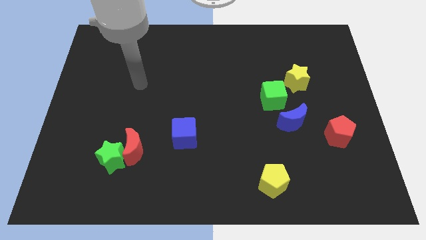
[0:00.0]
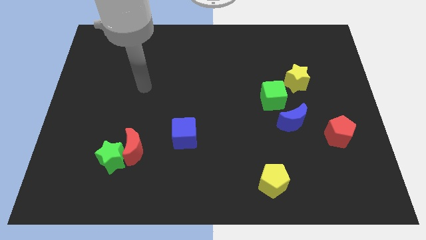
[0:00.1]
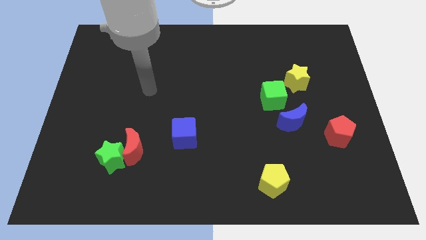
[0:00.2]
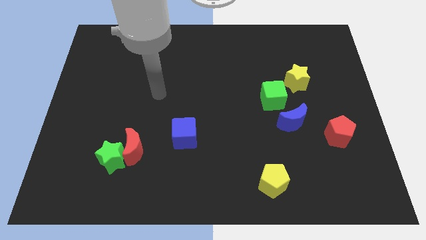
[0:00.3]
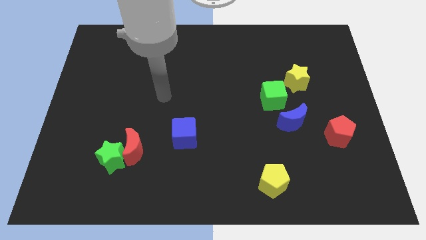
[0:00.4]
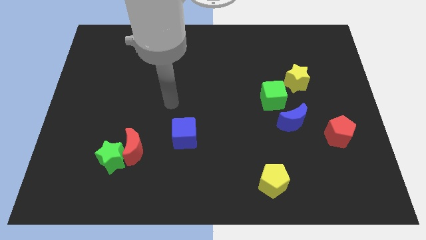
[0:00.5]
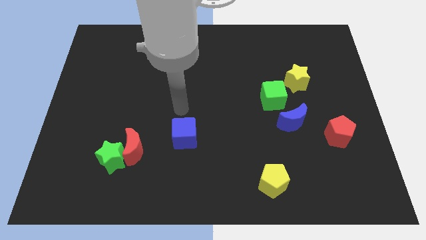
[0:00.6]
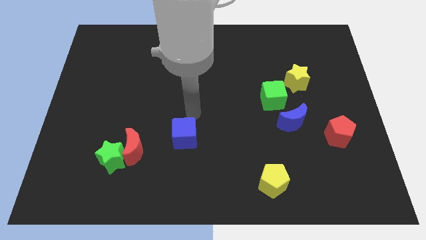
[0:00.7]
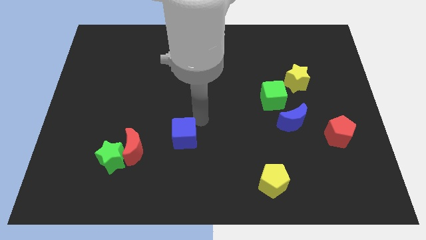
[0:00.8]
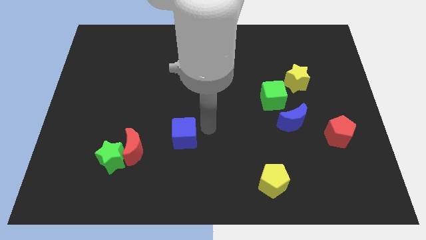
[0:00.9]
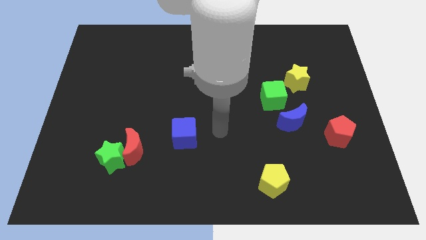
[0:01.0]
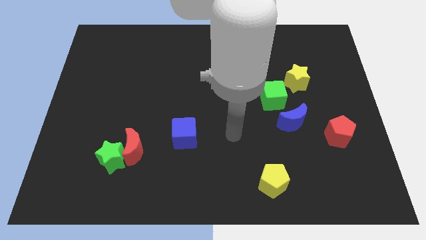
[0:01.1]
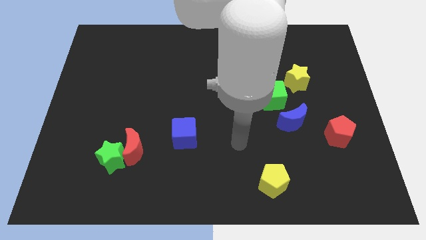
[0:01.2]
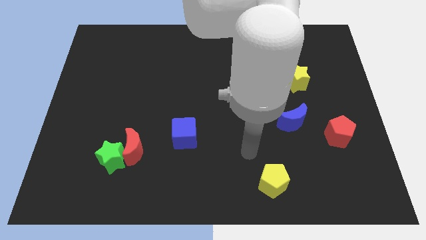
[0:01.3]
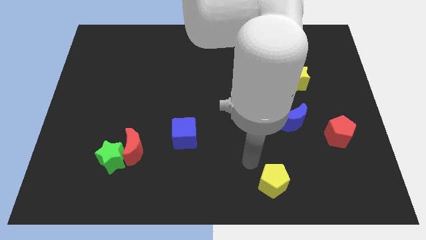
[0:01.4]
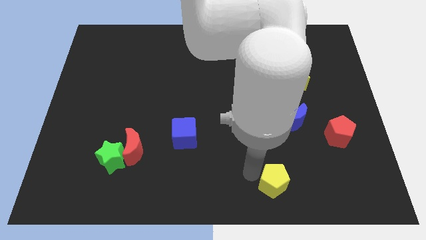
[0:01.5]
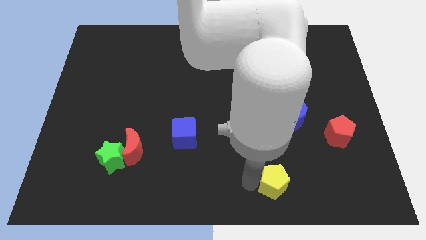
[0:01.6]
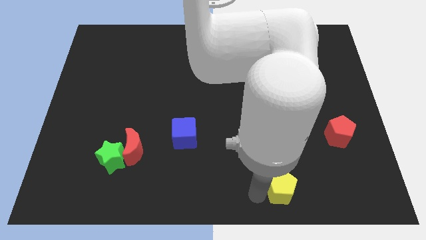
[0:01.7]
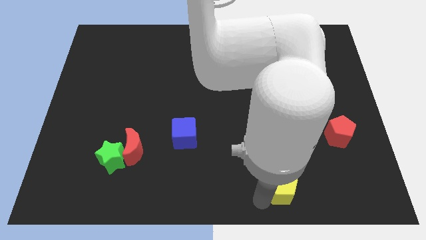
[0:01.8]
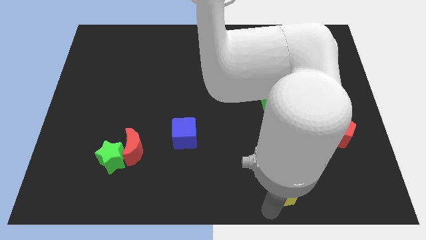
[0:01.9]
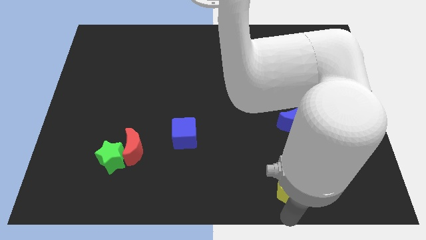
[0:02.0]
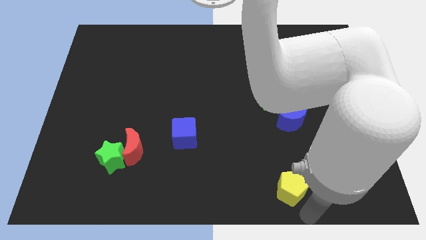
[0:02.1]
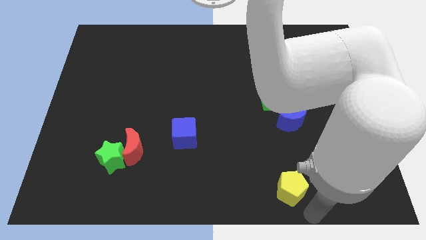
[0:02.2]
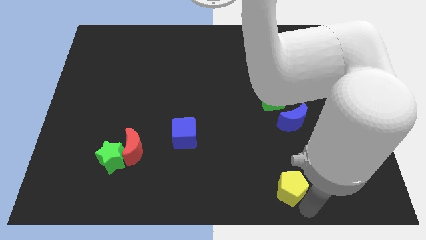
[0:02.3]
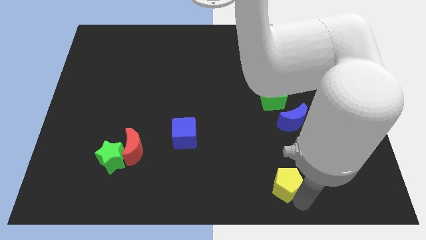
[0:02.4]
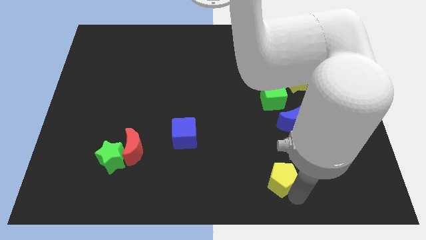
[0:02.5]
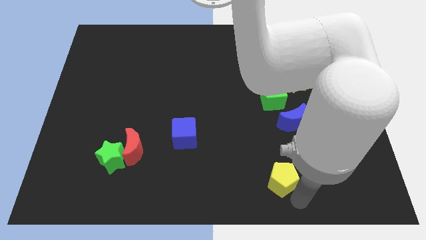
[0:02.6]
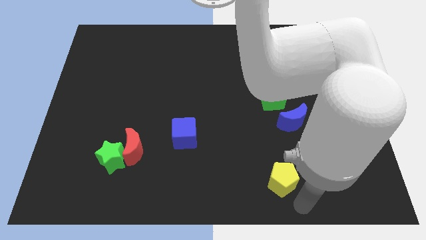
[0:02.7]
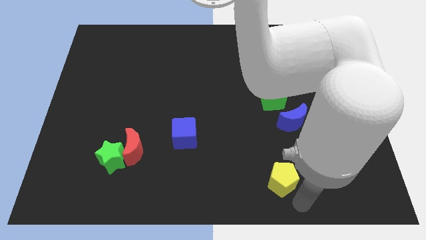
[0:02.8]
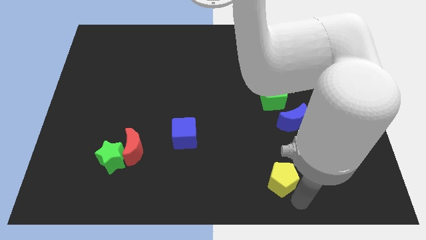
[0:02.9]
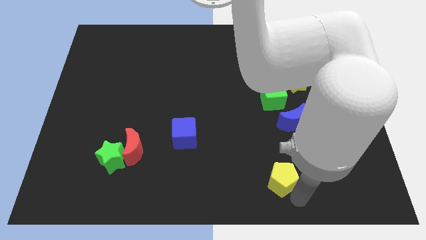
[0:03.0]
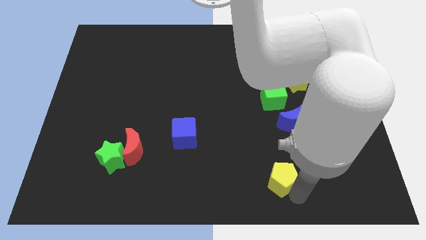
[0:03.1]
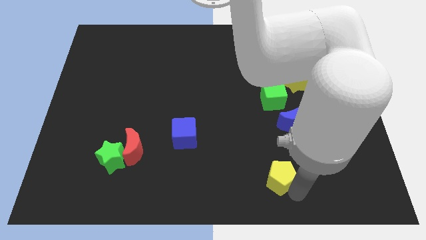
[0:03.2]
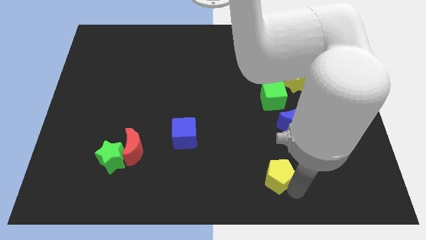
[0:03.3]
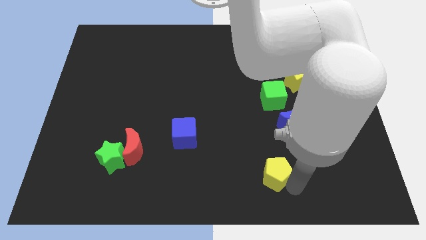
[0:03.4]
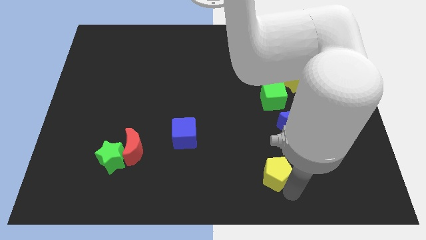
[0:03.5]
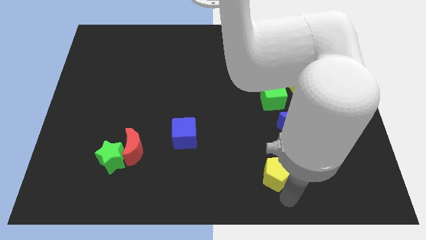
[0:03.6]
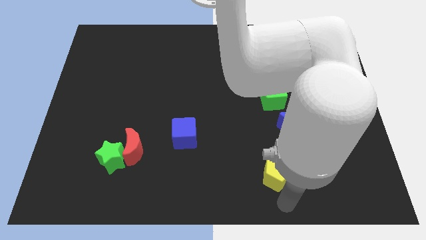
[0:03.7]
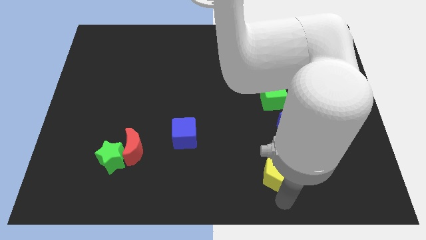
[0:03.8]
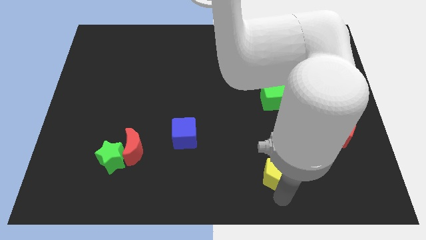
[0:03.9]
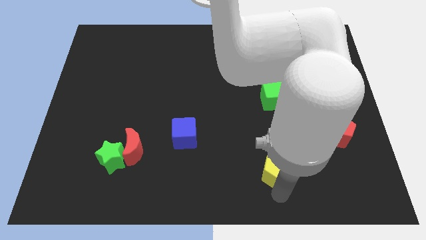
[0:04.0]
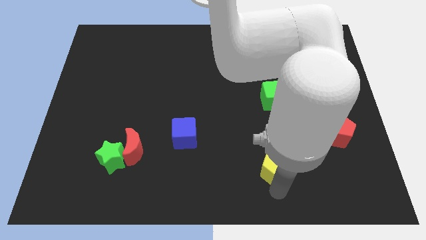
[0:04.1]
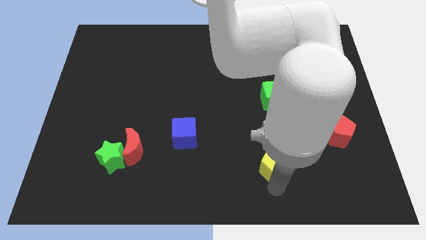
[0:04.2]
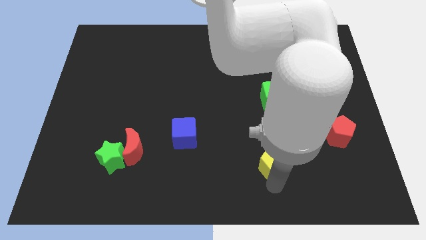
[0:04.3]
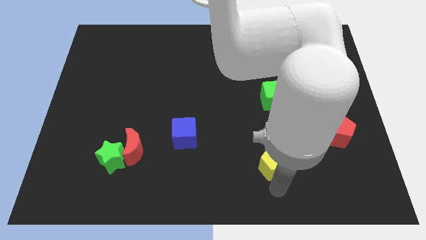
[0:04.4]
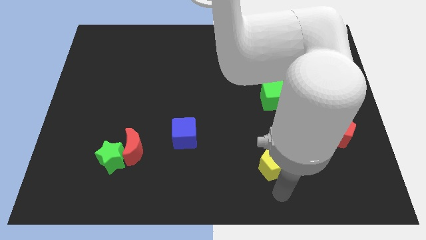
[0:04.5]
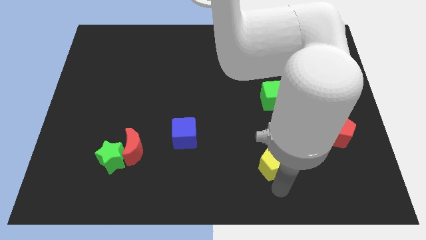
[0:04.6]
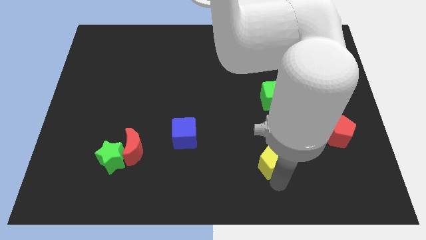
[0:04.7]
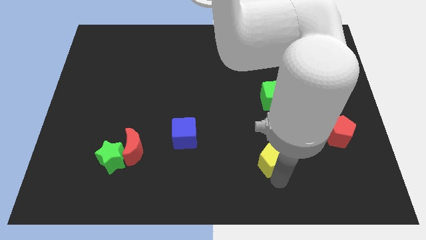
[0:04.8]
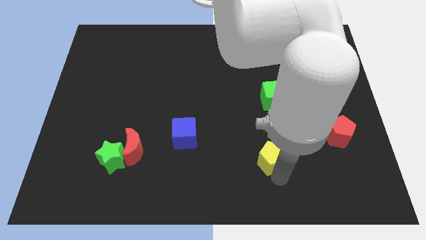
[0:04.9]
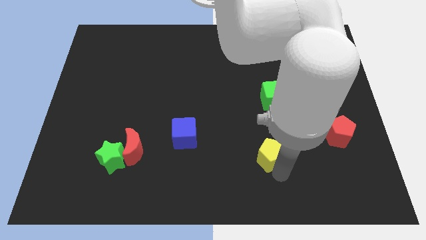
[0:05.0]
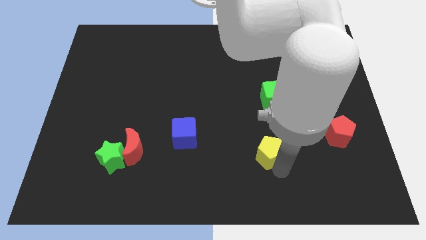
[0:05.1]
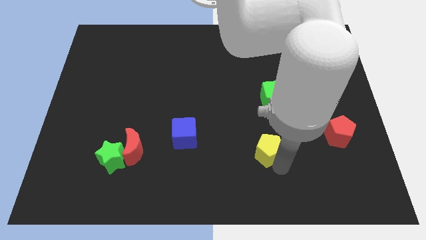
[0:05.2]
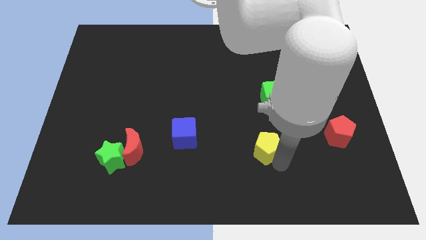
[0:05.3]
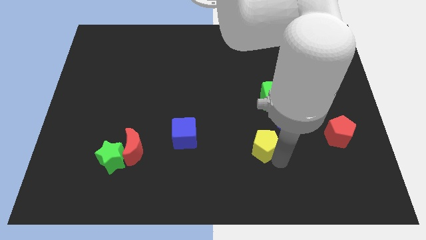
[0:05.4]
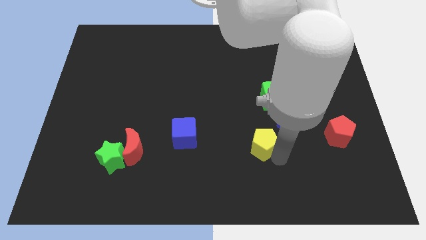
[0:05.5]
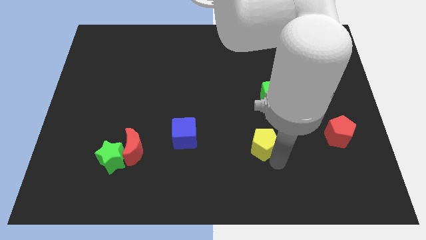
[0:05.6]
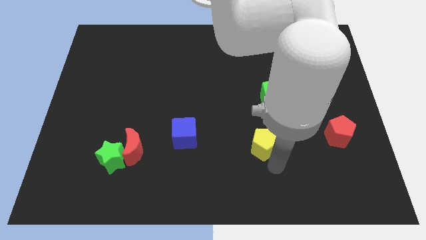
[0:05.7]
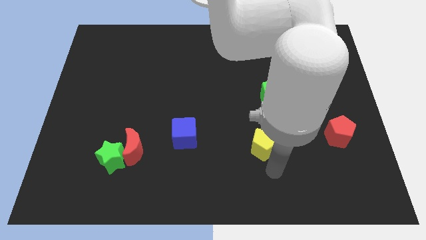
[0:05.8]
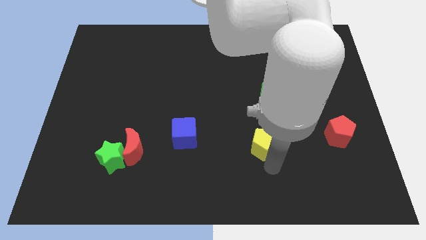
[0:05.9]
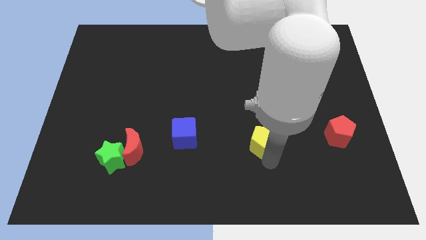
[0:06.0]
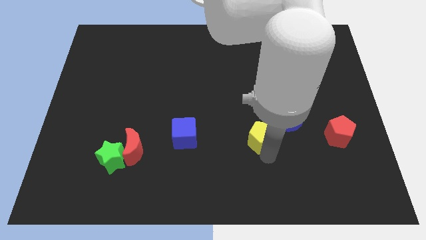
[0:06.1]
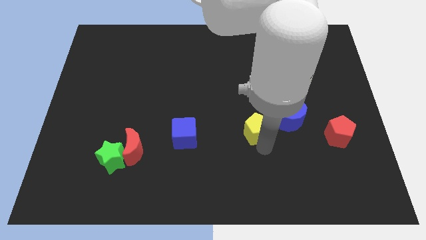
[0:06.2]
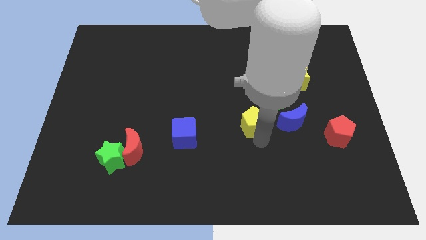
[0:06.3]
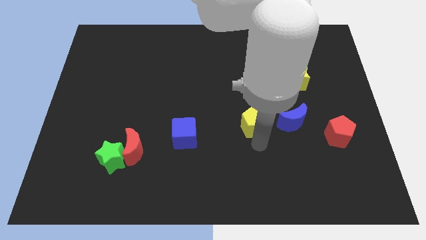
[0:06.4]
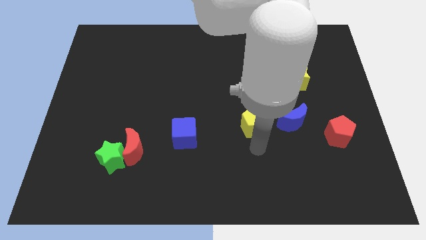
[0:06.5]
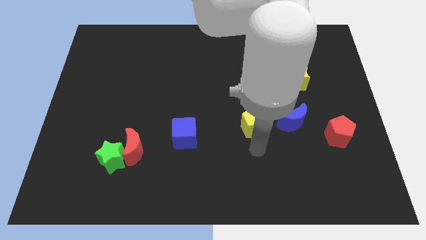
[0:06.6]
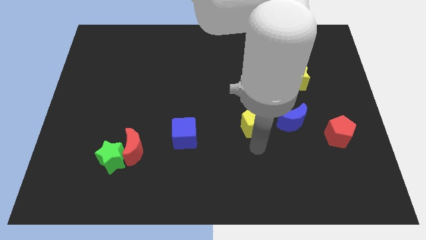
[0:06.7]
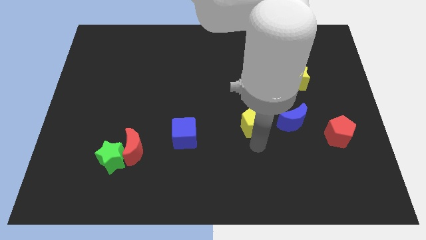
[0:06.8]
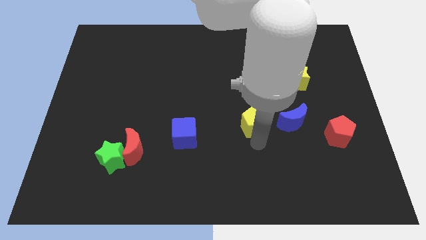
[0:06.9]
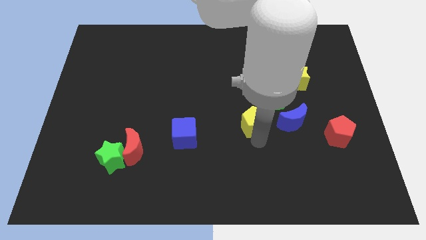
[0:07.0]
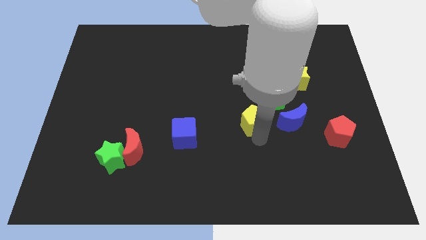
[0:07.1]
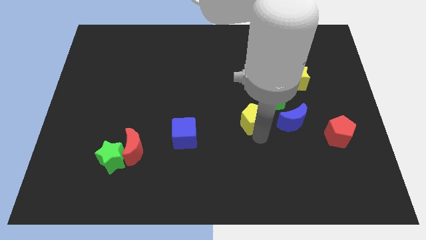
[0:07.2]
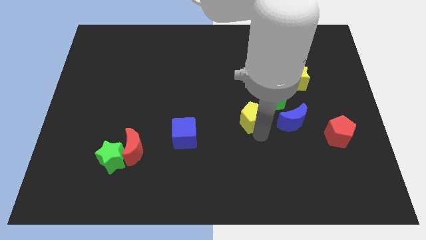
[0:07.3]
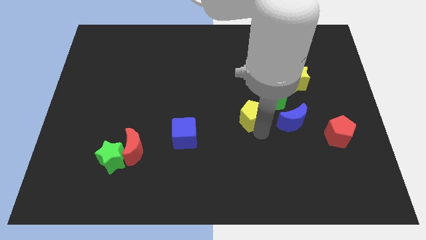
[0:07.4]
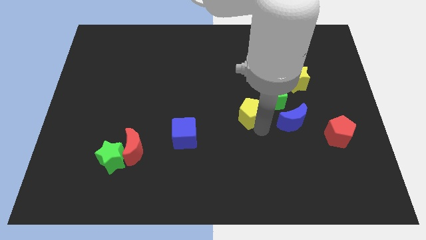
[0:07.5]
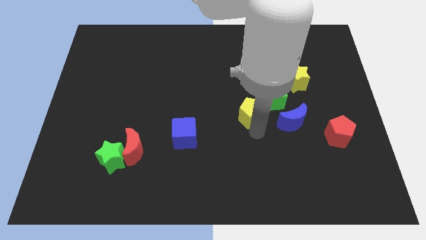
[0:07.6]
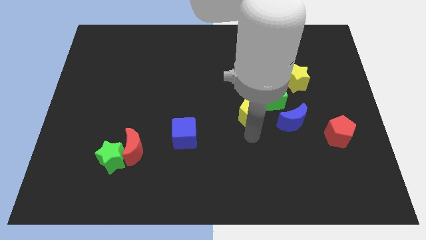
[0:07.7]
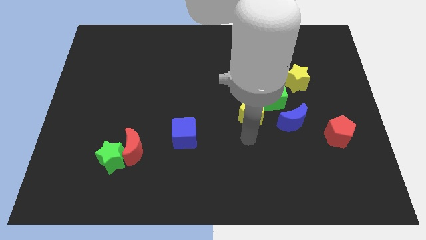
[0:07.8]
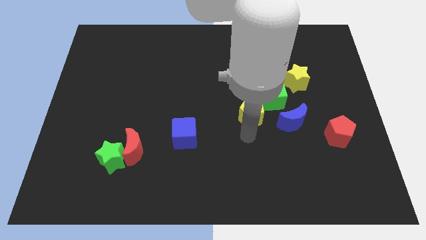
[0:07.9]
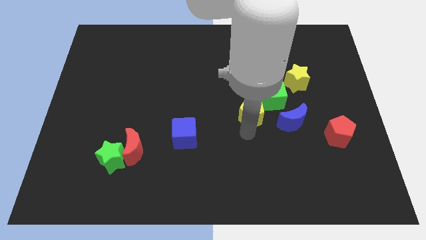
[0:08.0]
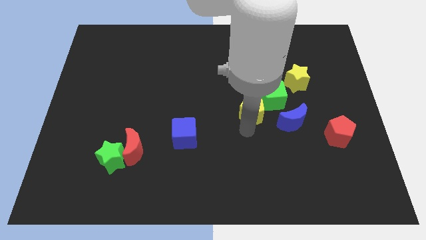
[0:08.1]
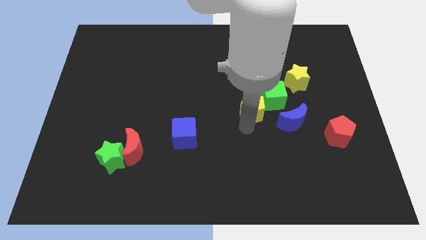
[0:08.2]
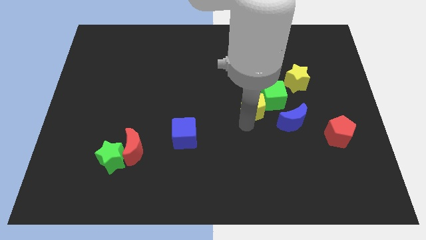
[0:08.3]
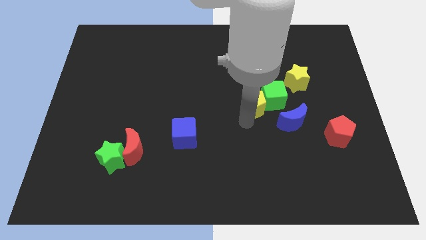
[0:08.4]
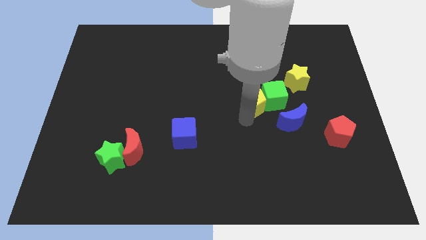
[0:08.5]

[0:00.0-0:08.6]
slide the yellow pentagon upwards
